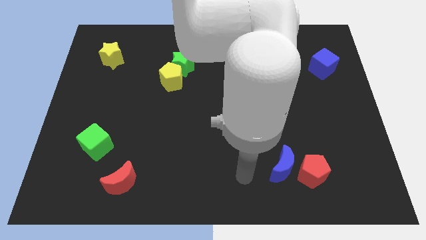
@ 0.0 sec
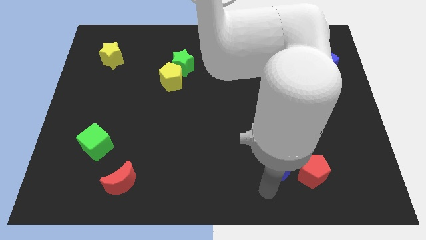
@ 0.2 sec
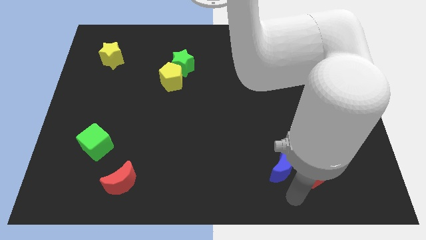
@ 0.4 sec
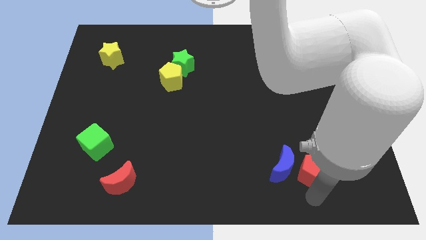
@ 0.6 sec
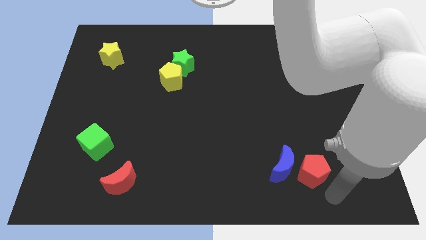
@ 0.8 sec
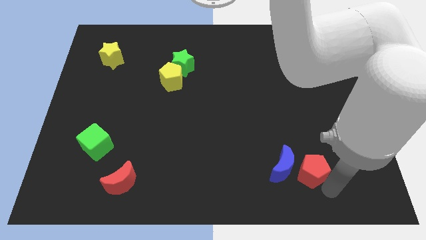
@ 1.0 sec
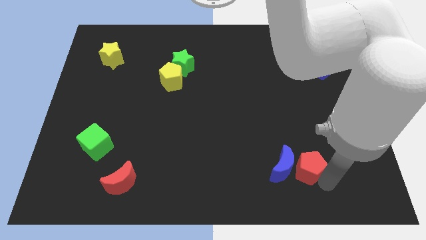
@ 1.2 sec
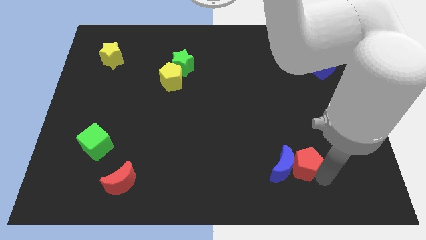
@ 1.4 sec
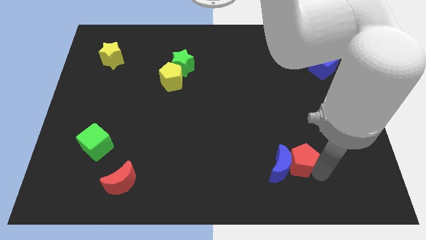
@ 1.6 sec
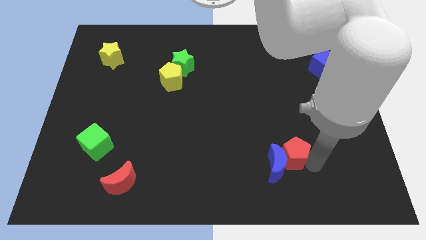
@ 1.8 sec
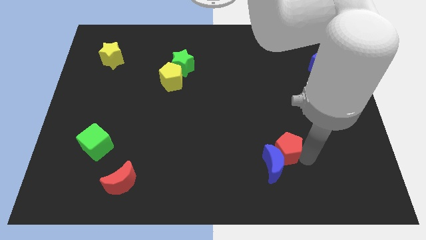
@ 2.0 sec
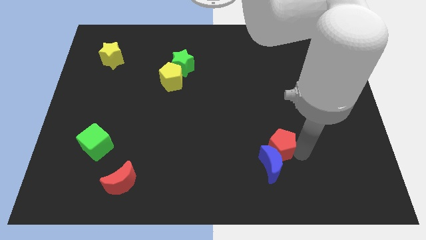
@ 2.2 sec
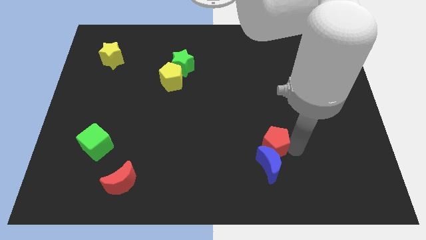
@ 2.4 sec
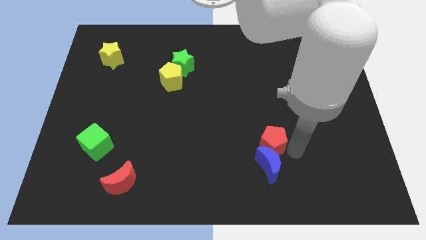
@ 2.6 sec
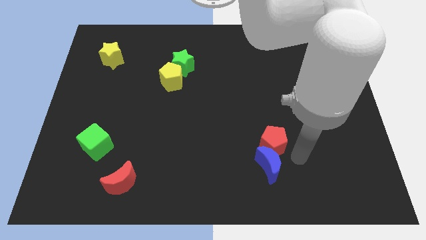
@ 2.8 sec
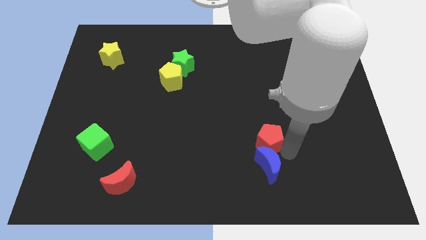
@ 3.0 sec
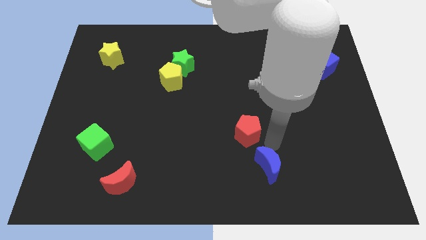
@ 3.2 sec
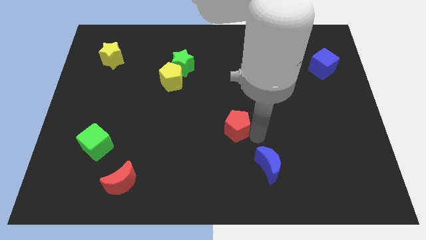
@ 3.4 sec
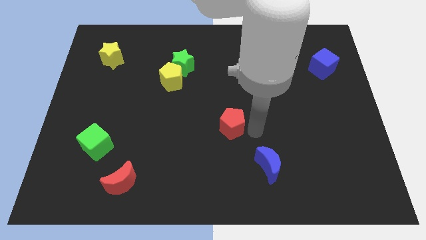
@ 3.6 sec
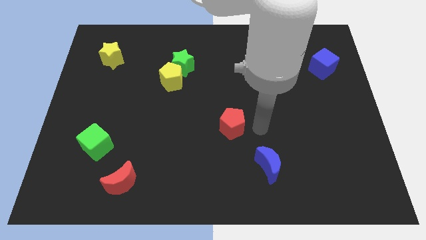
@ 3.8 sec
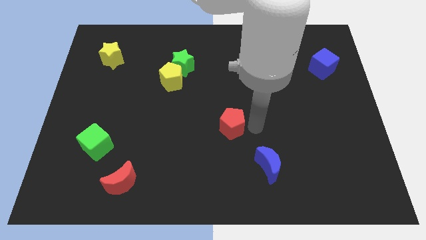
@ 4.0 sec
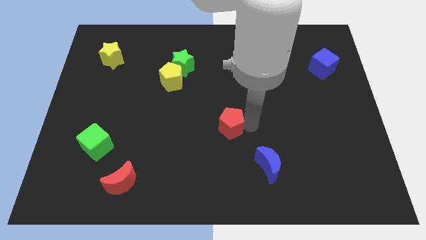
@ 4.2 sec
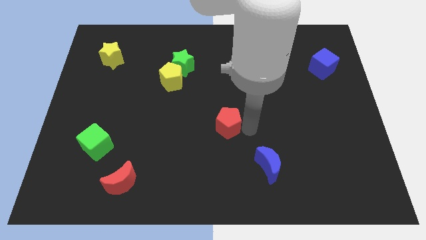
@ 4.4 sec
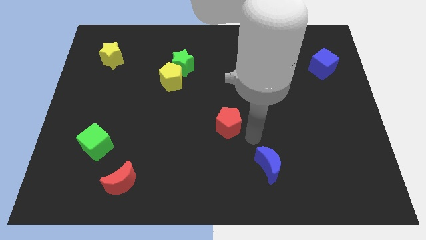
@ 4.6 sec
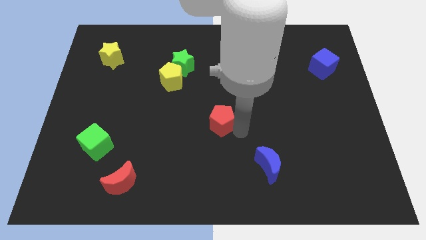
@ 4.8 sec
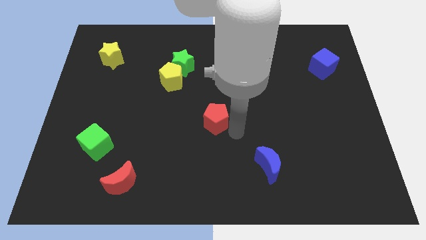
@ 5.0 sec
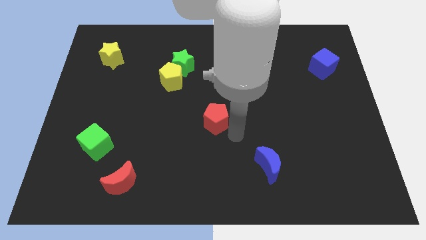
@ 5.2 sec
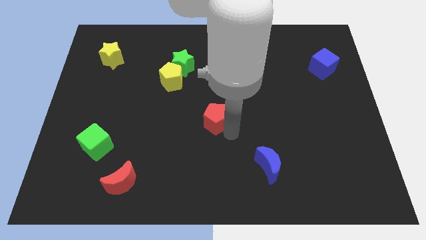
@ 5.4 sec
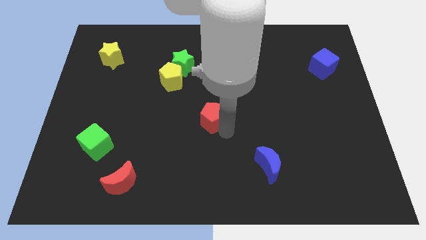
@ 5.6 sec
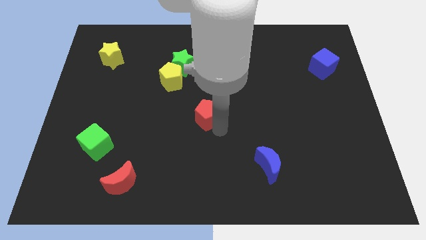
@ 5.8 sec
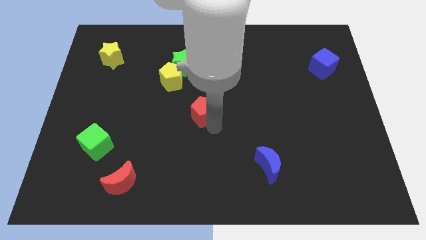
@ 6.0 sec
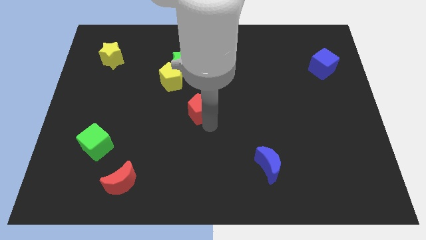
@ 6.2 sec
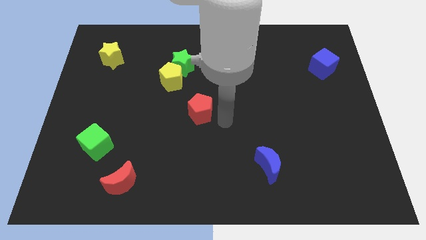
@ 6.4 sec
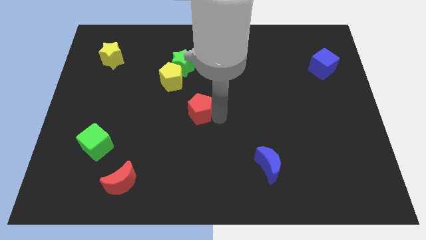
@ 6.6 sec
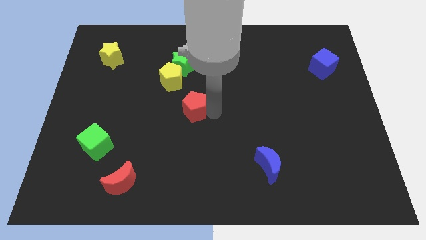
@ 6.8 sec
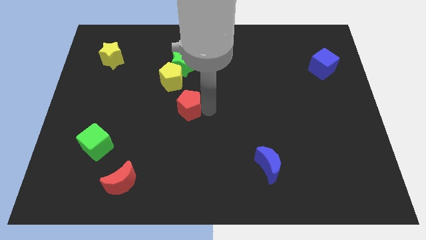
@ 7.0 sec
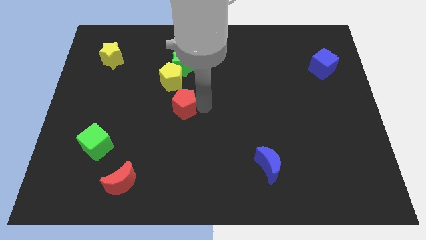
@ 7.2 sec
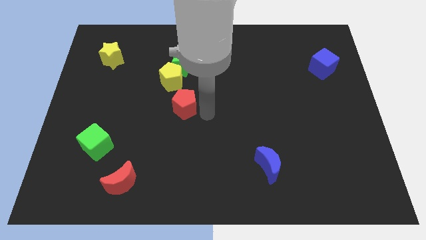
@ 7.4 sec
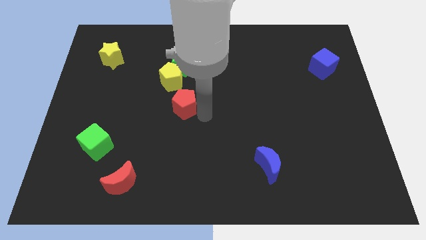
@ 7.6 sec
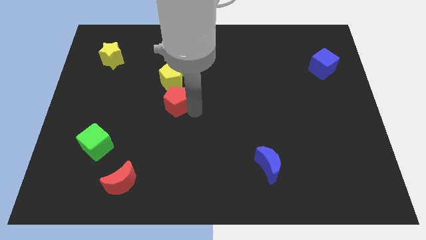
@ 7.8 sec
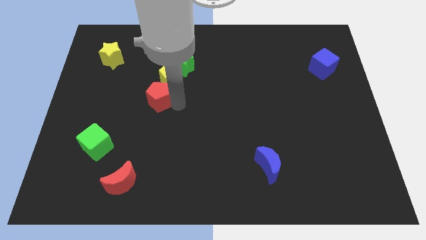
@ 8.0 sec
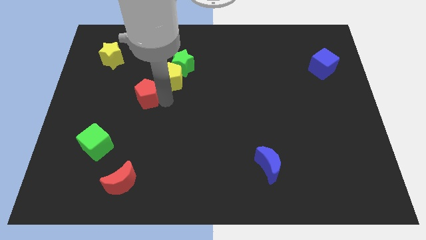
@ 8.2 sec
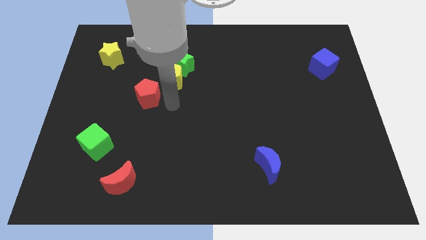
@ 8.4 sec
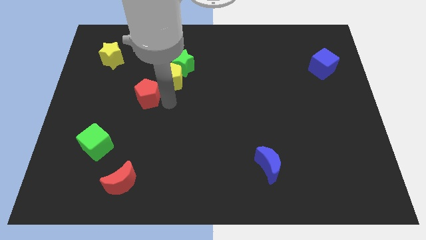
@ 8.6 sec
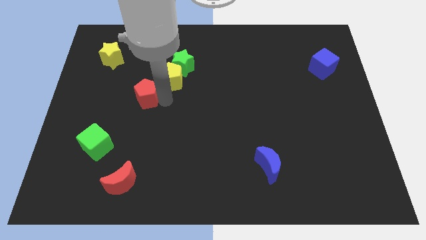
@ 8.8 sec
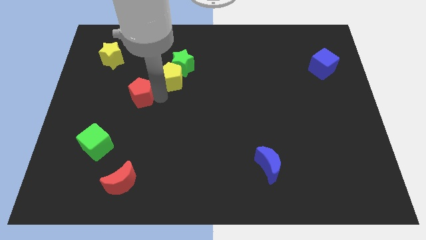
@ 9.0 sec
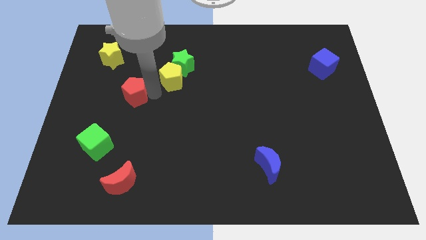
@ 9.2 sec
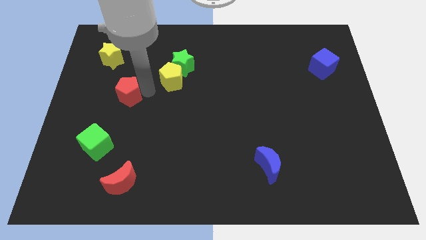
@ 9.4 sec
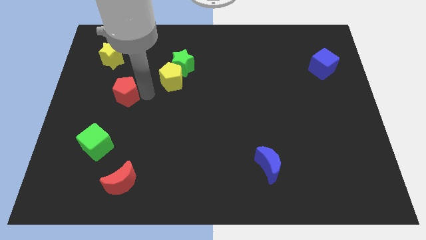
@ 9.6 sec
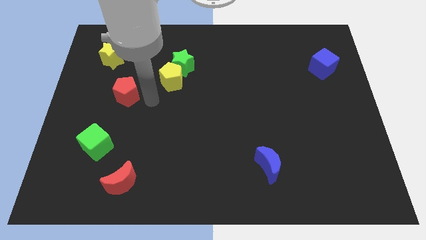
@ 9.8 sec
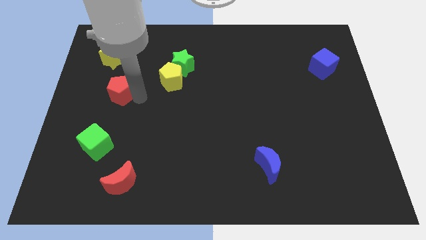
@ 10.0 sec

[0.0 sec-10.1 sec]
slide the red pentagon to the bottom of the yellow star

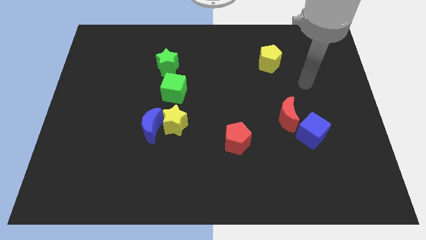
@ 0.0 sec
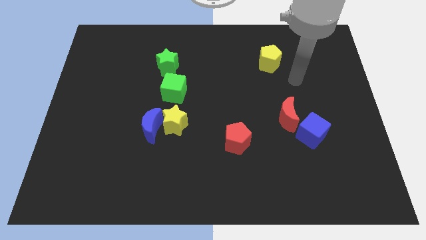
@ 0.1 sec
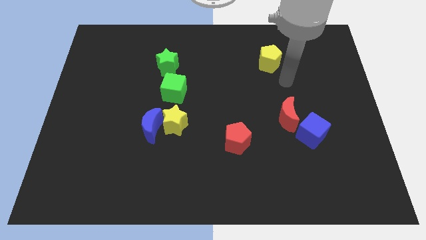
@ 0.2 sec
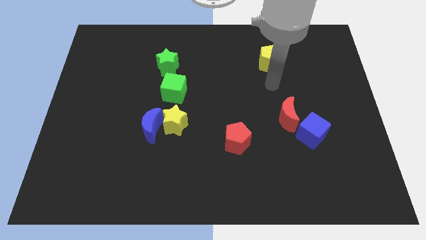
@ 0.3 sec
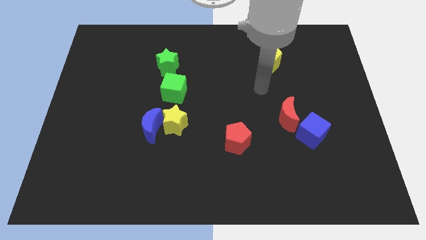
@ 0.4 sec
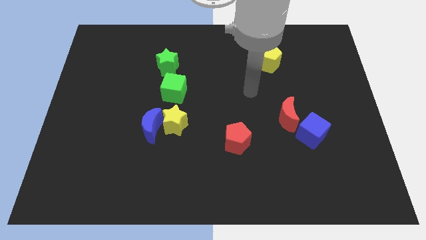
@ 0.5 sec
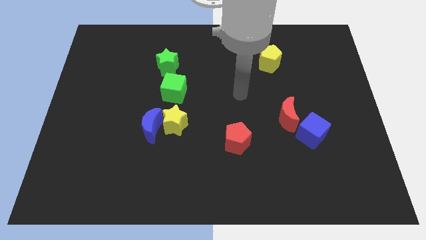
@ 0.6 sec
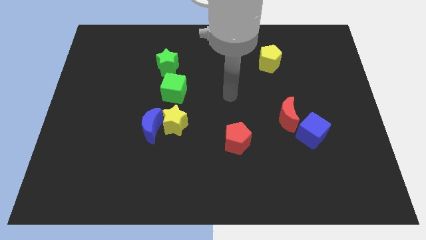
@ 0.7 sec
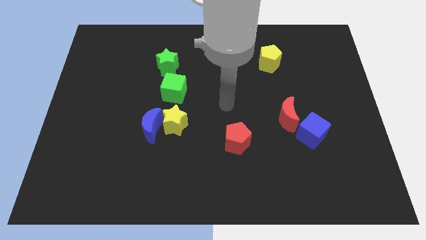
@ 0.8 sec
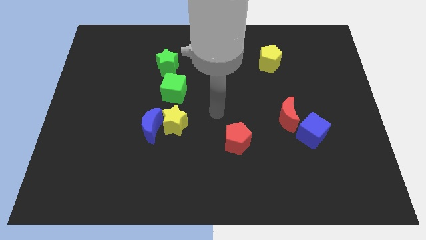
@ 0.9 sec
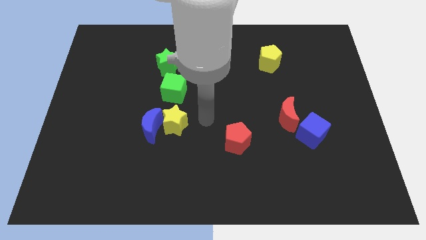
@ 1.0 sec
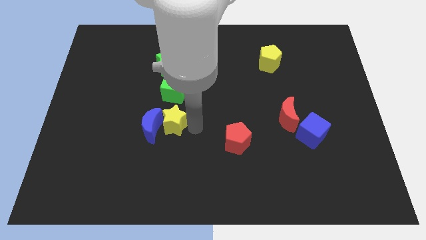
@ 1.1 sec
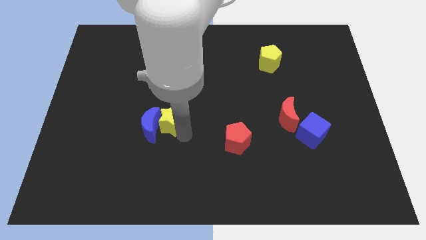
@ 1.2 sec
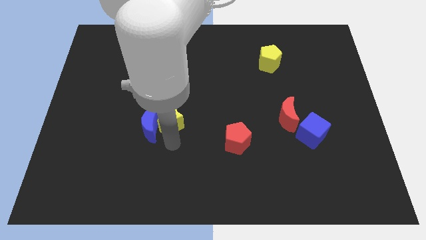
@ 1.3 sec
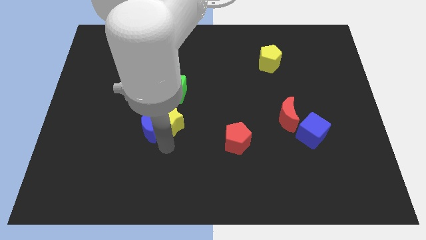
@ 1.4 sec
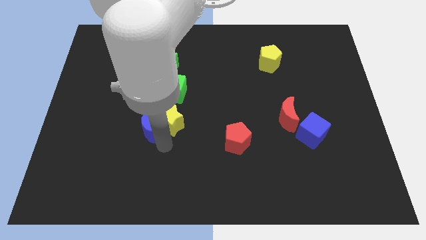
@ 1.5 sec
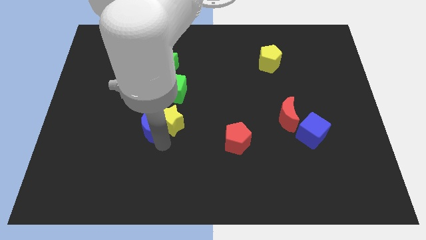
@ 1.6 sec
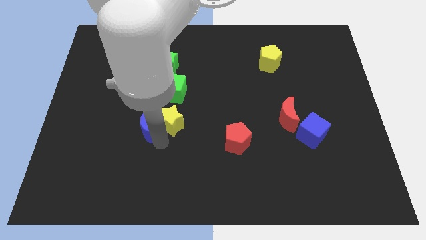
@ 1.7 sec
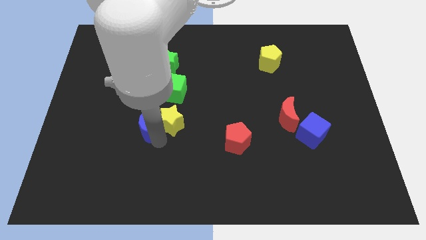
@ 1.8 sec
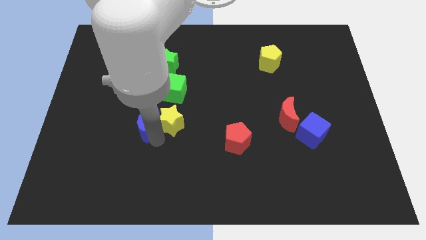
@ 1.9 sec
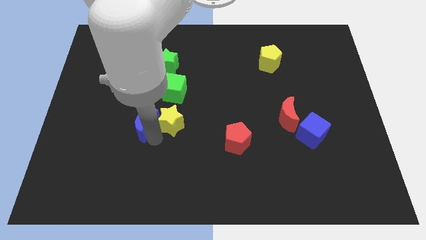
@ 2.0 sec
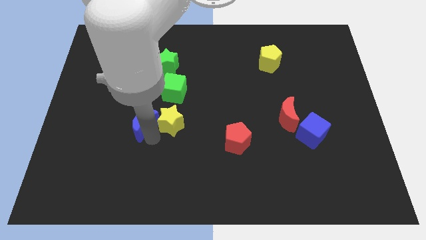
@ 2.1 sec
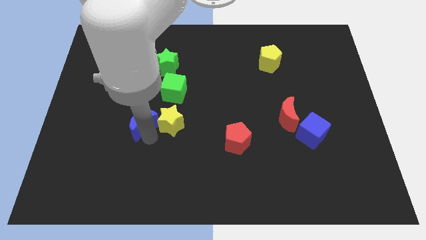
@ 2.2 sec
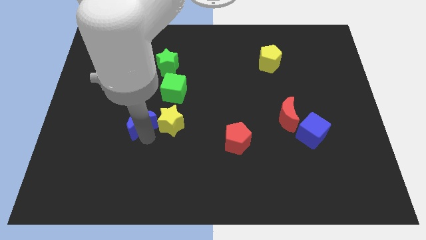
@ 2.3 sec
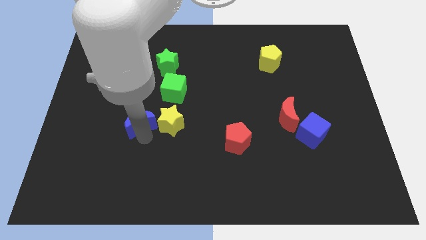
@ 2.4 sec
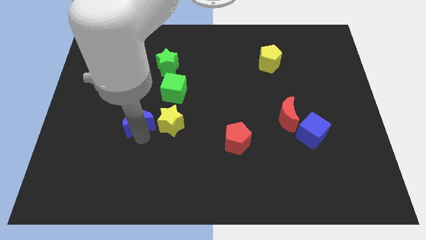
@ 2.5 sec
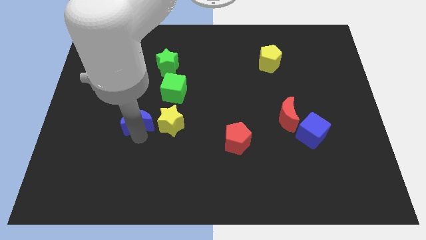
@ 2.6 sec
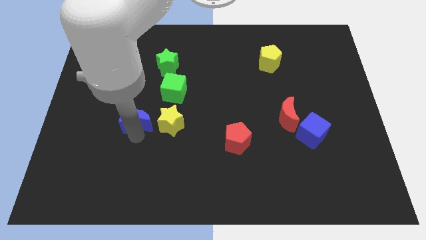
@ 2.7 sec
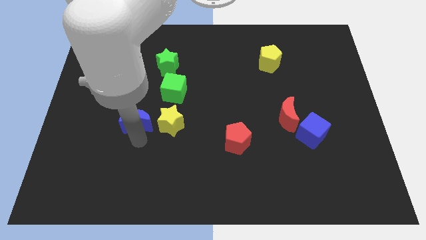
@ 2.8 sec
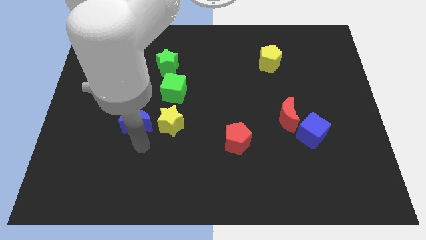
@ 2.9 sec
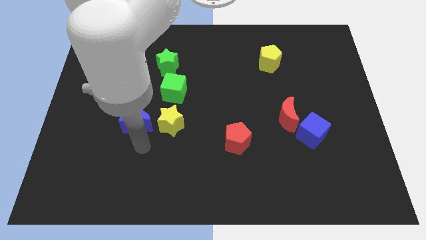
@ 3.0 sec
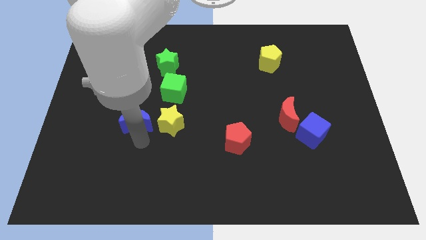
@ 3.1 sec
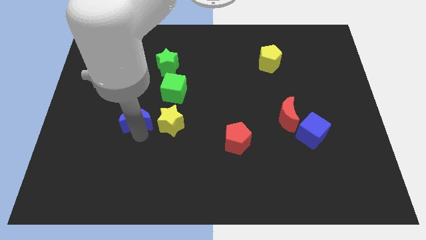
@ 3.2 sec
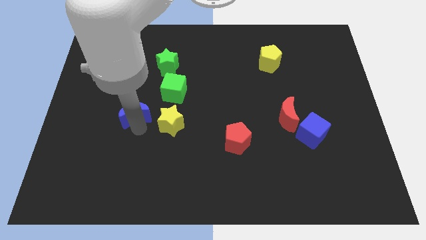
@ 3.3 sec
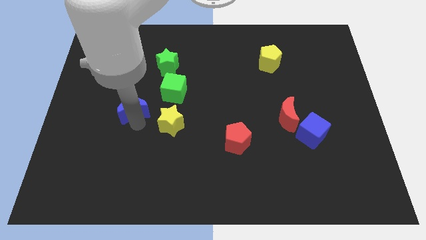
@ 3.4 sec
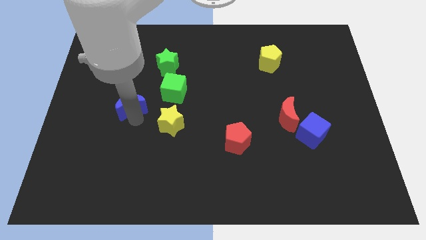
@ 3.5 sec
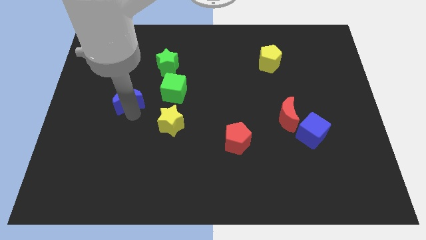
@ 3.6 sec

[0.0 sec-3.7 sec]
move the blue moon left of the green cube
